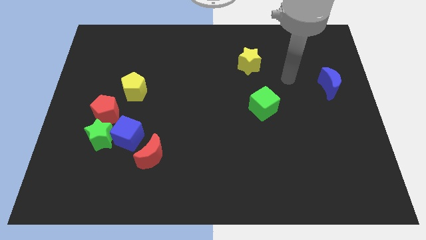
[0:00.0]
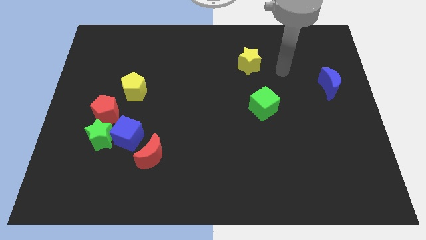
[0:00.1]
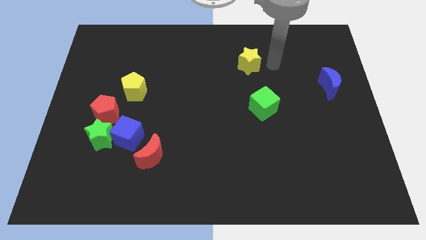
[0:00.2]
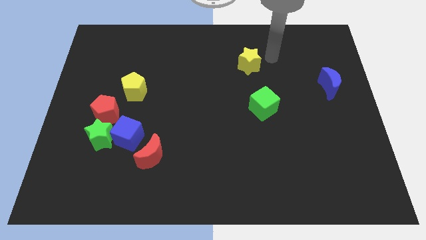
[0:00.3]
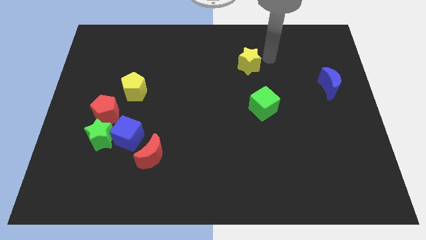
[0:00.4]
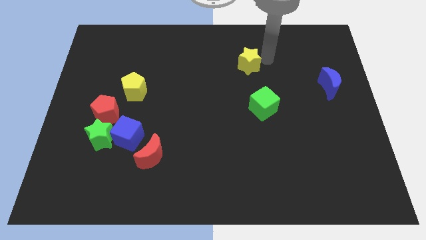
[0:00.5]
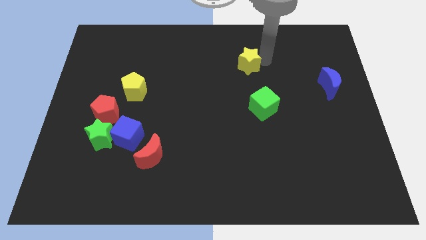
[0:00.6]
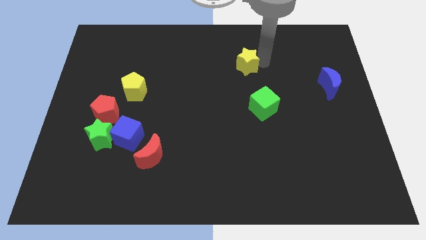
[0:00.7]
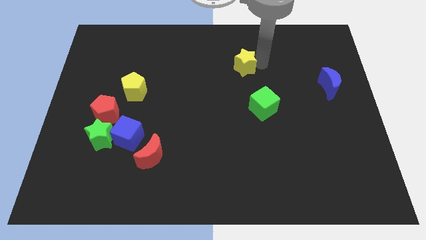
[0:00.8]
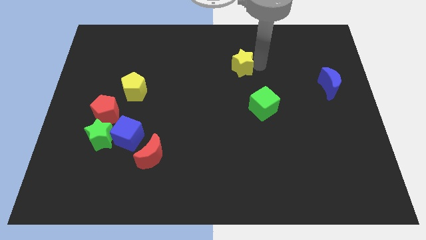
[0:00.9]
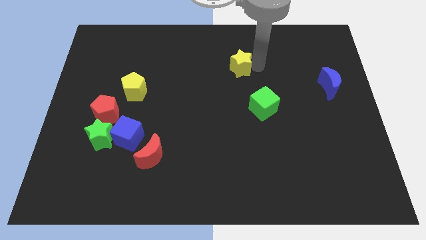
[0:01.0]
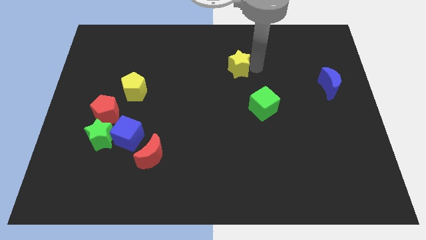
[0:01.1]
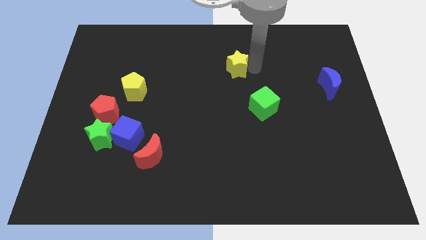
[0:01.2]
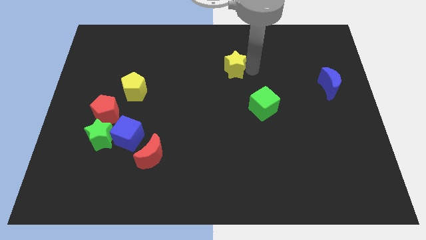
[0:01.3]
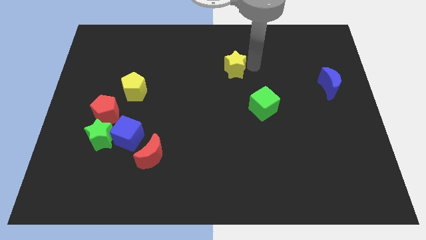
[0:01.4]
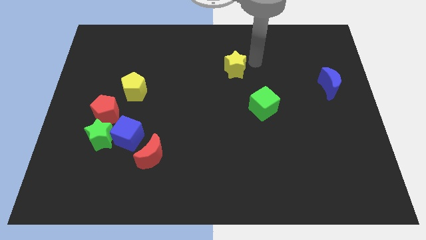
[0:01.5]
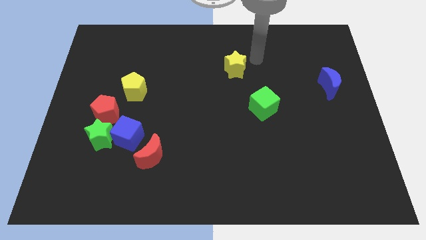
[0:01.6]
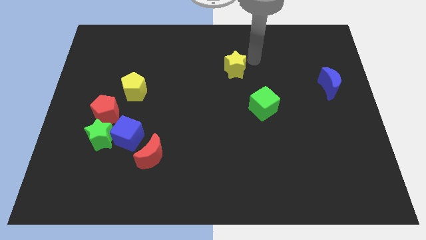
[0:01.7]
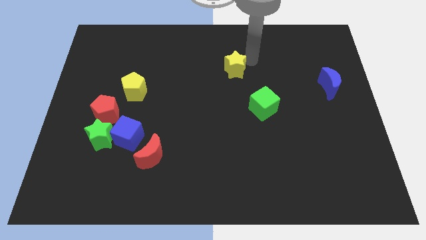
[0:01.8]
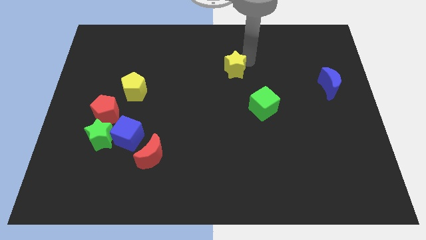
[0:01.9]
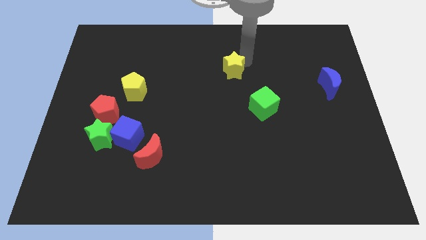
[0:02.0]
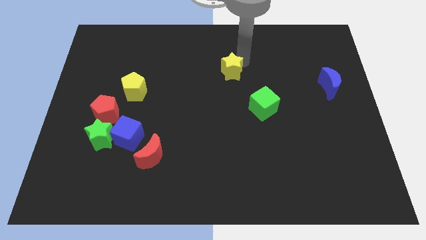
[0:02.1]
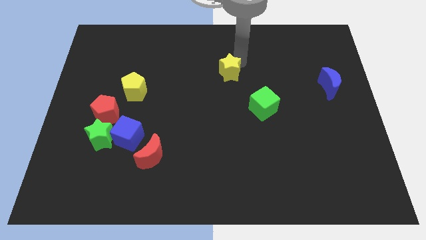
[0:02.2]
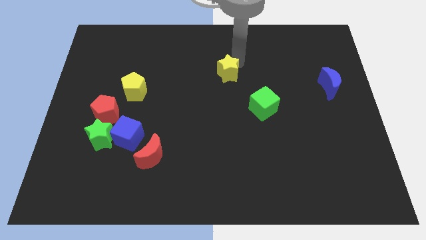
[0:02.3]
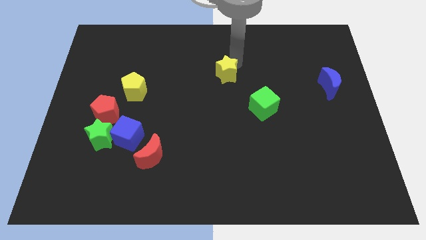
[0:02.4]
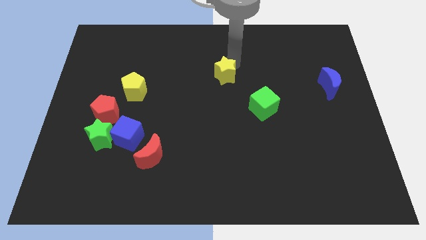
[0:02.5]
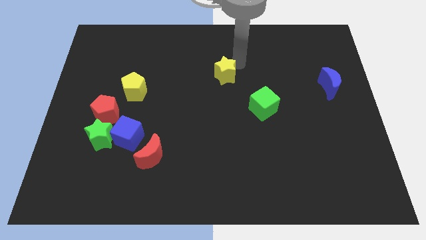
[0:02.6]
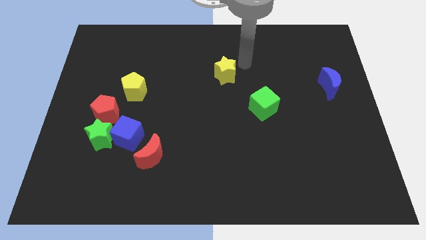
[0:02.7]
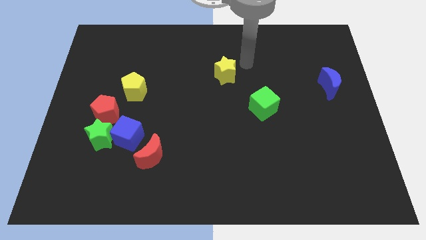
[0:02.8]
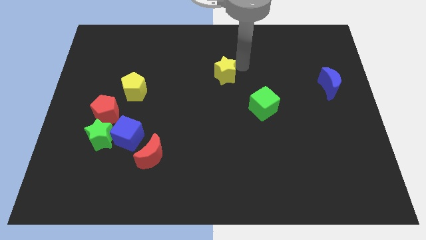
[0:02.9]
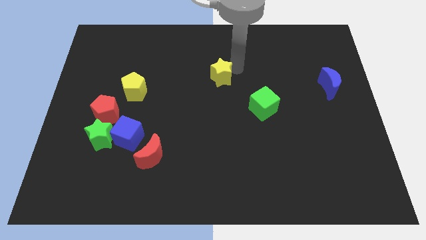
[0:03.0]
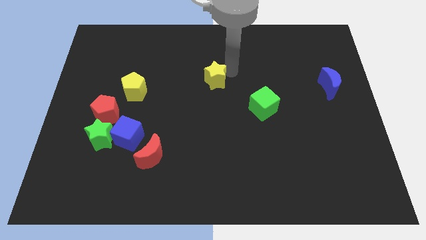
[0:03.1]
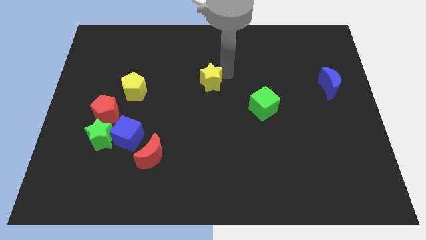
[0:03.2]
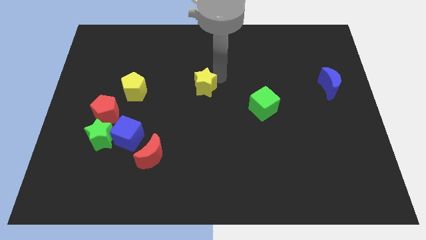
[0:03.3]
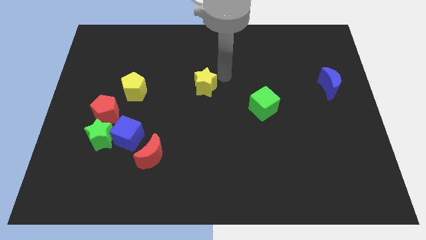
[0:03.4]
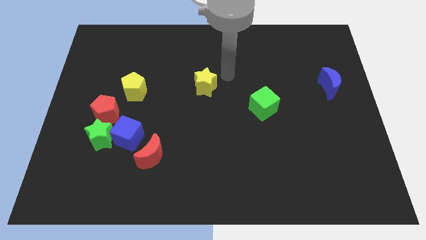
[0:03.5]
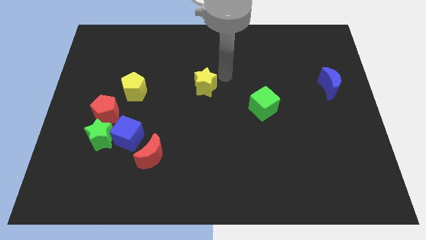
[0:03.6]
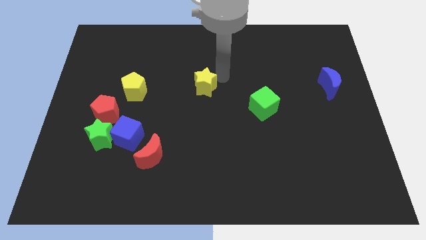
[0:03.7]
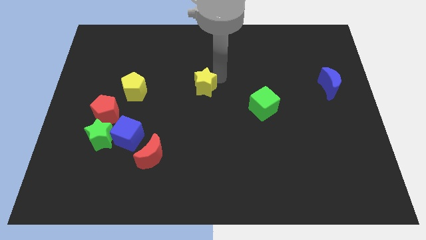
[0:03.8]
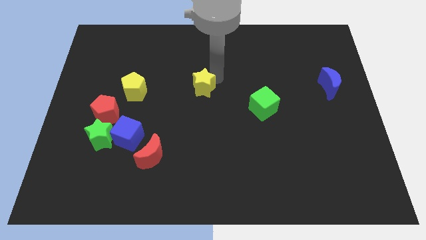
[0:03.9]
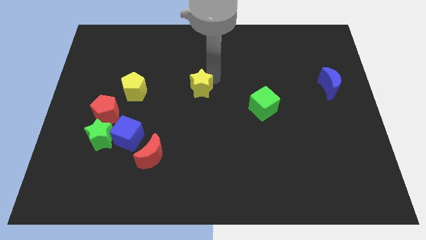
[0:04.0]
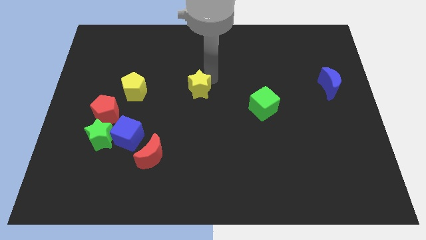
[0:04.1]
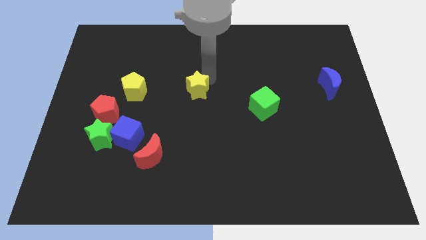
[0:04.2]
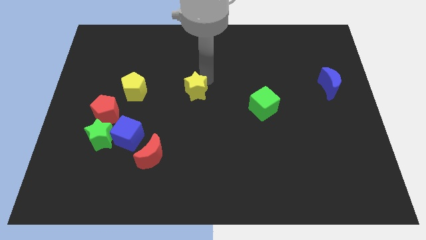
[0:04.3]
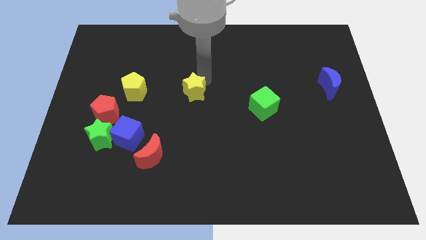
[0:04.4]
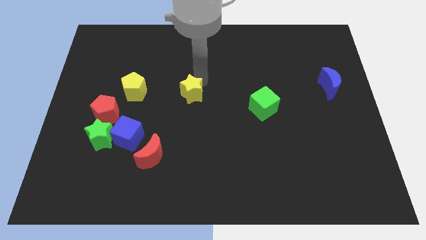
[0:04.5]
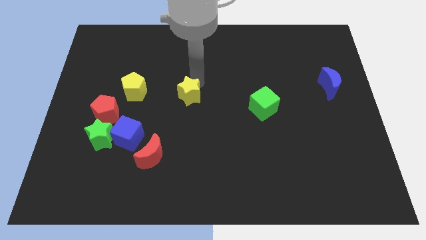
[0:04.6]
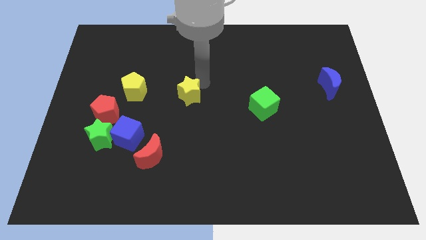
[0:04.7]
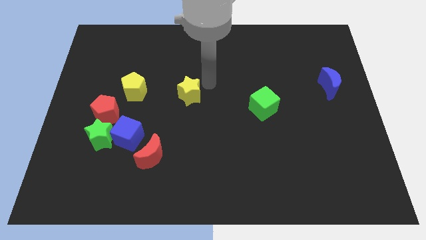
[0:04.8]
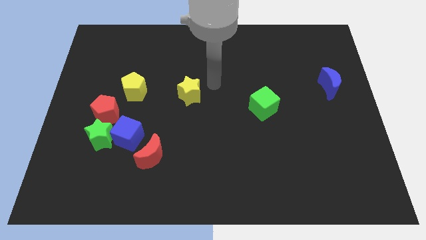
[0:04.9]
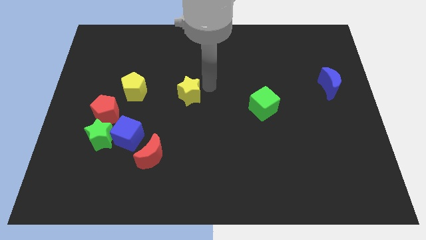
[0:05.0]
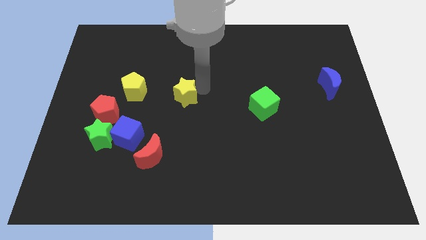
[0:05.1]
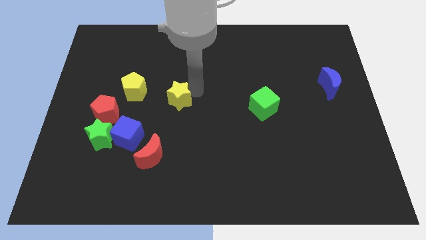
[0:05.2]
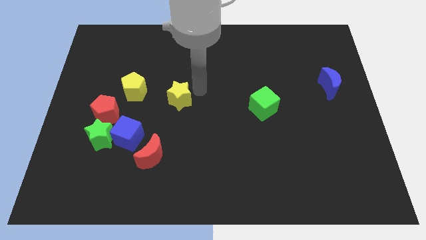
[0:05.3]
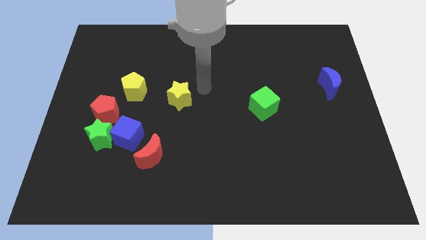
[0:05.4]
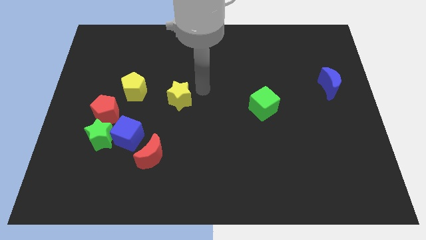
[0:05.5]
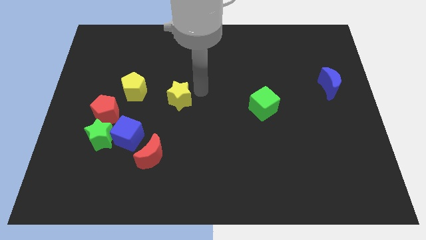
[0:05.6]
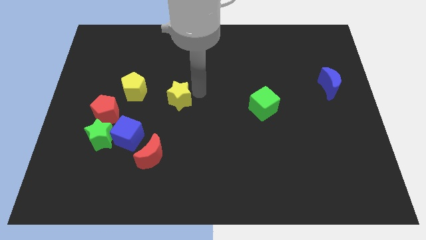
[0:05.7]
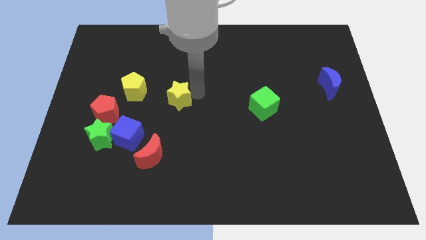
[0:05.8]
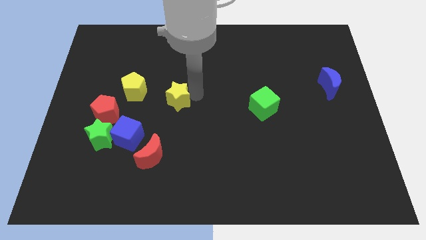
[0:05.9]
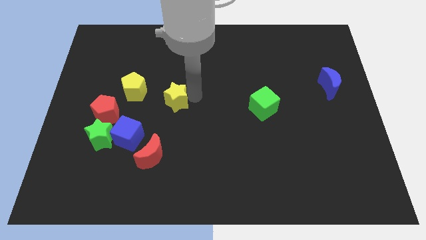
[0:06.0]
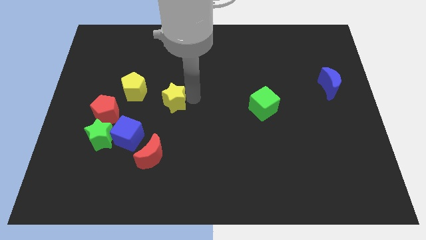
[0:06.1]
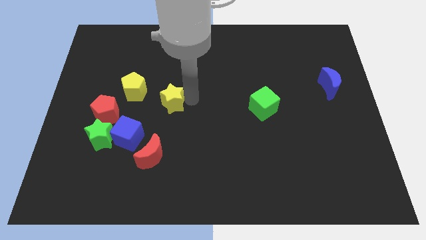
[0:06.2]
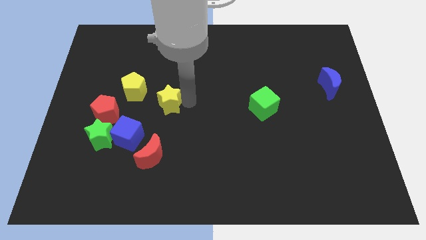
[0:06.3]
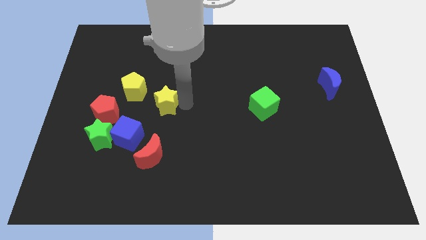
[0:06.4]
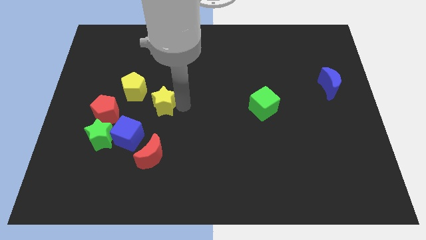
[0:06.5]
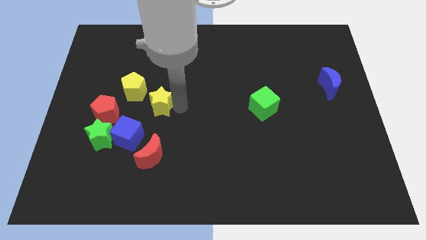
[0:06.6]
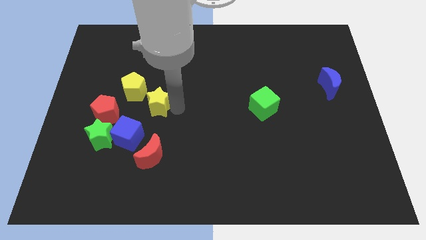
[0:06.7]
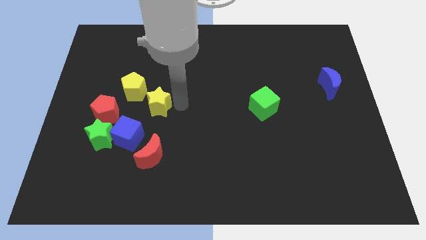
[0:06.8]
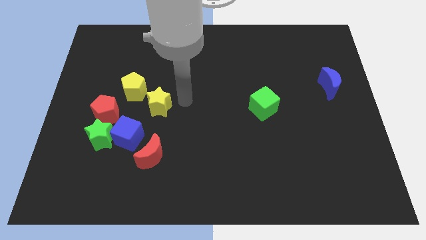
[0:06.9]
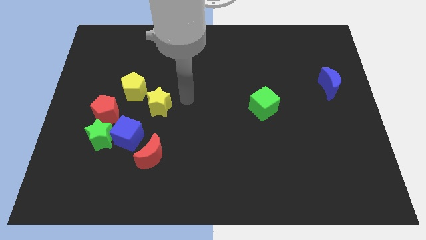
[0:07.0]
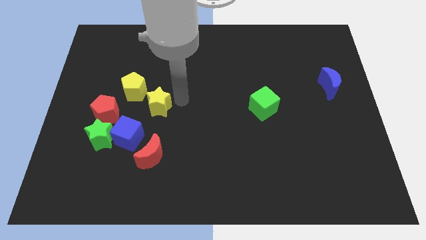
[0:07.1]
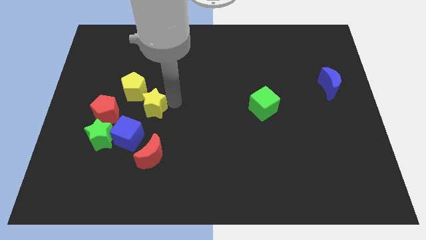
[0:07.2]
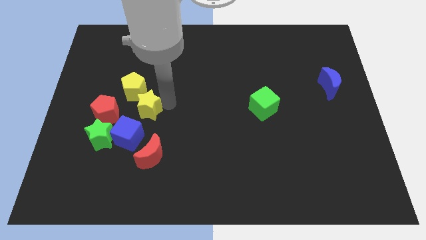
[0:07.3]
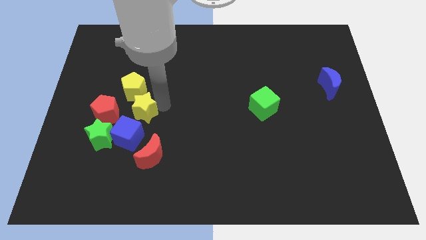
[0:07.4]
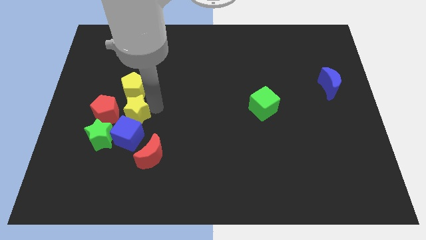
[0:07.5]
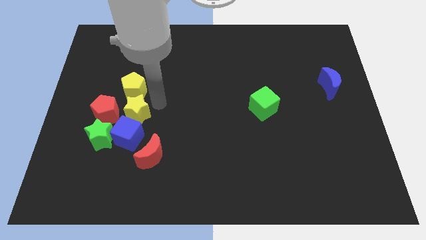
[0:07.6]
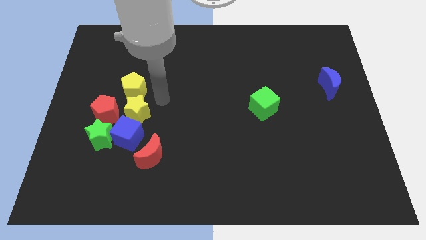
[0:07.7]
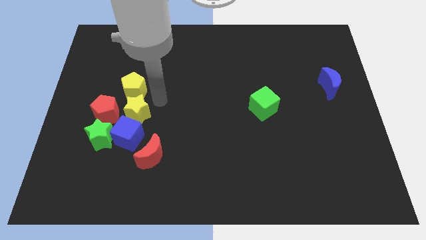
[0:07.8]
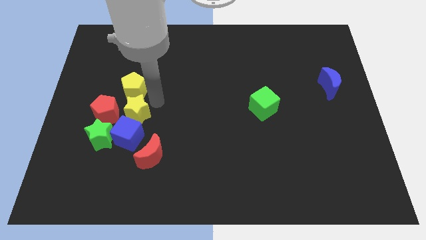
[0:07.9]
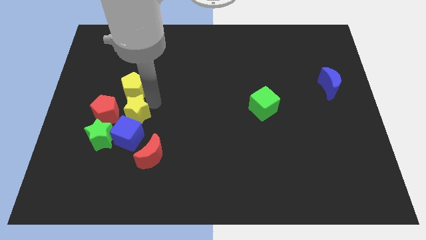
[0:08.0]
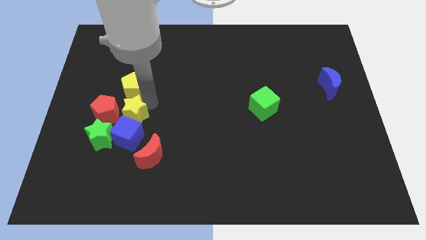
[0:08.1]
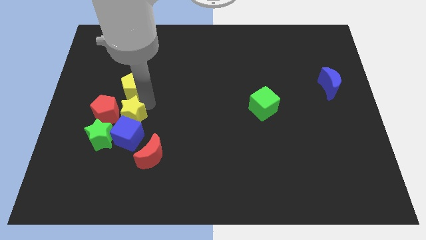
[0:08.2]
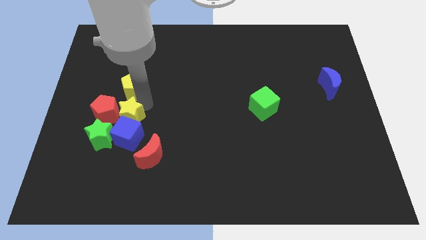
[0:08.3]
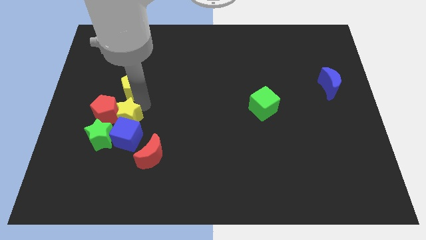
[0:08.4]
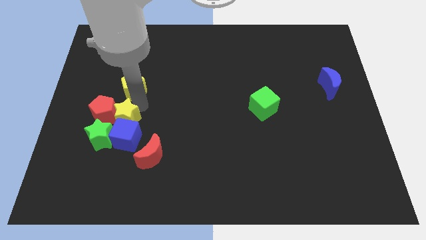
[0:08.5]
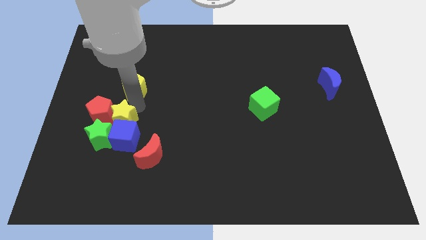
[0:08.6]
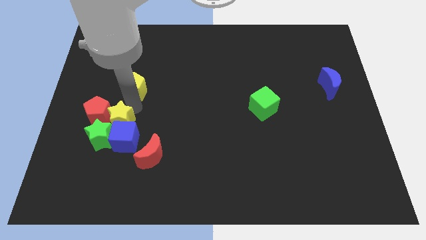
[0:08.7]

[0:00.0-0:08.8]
push the yellow star towards the green star
